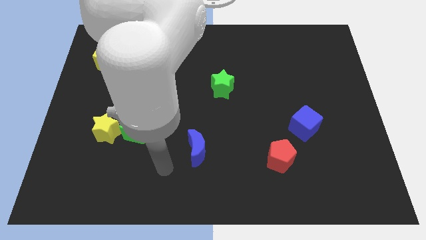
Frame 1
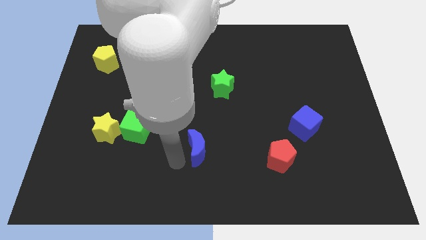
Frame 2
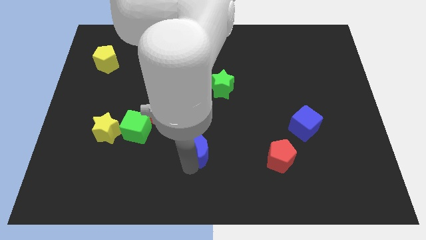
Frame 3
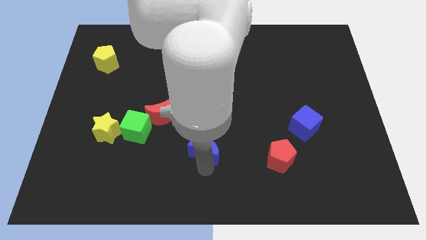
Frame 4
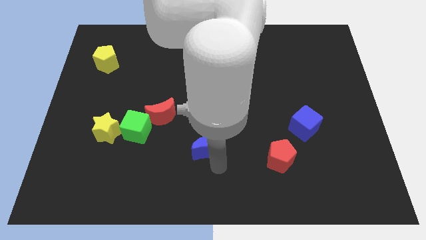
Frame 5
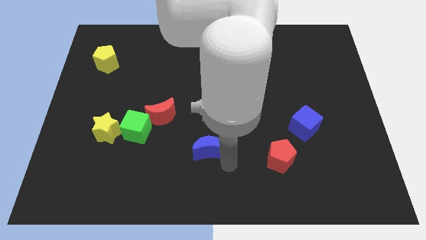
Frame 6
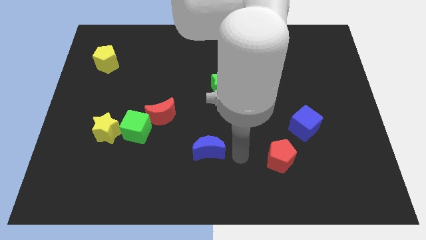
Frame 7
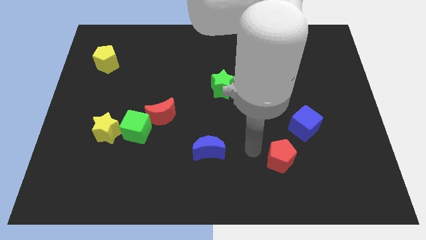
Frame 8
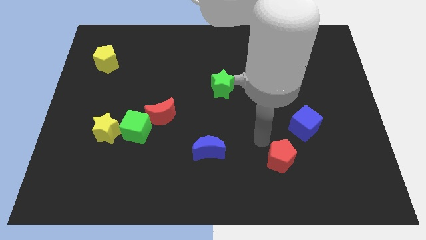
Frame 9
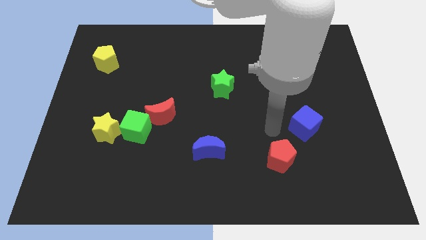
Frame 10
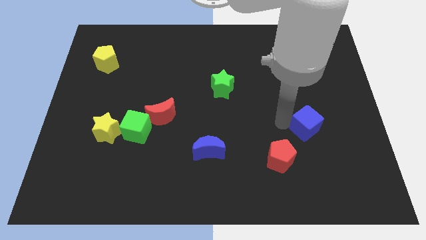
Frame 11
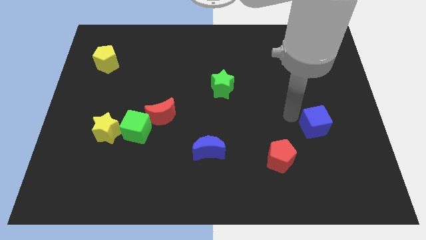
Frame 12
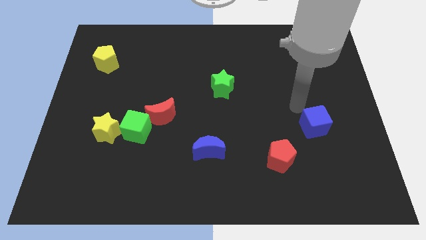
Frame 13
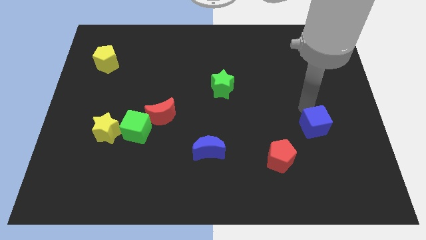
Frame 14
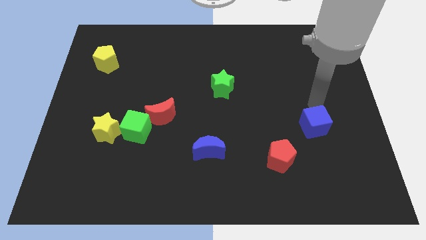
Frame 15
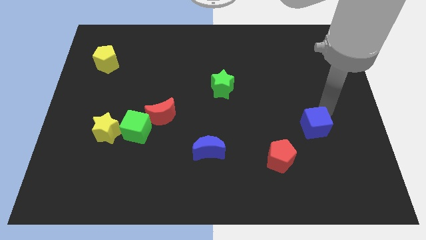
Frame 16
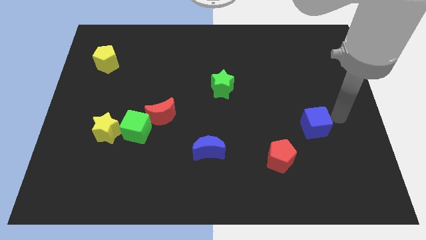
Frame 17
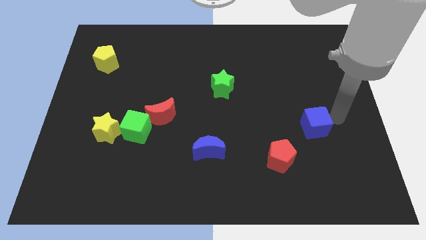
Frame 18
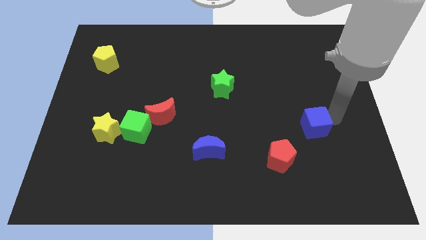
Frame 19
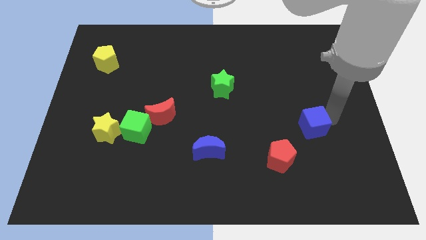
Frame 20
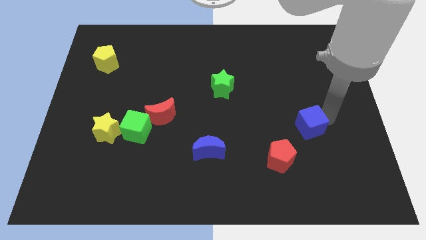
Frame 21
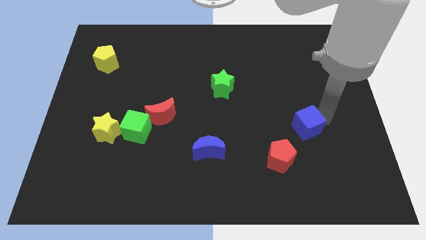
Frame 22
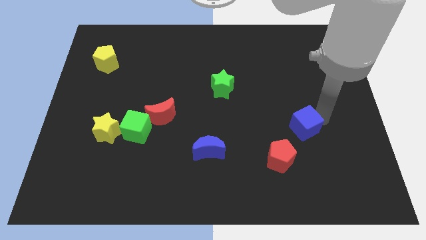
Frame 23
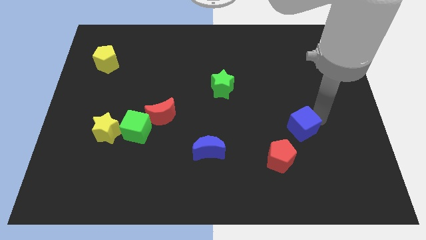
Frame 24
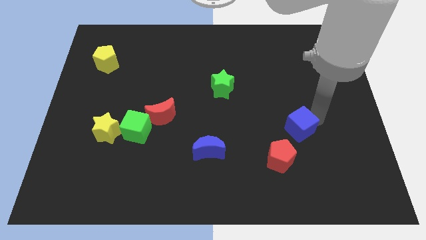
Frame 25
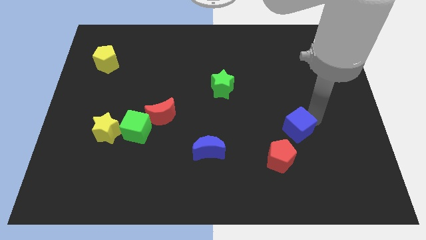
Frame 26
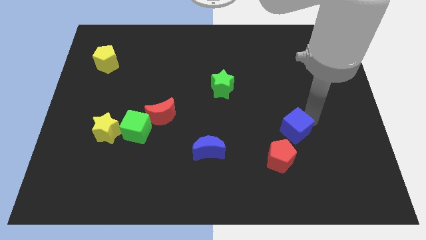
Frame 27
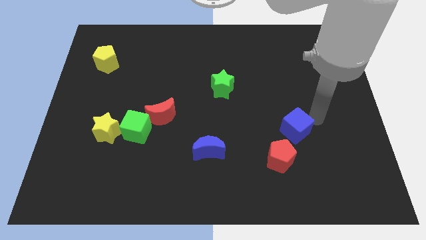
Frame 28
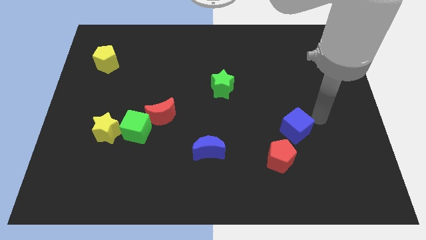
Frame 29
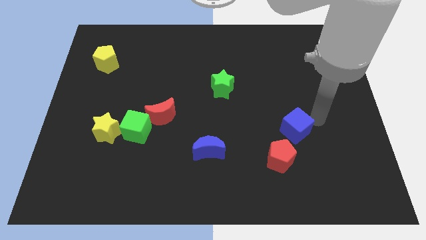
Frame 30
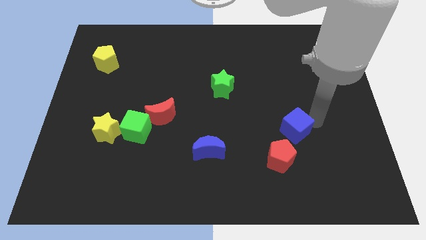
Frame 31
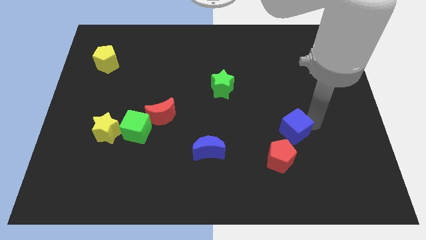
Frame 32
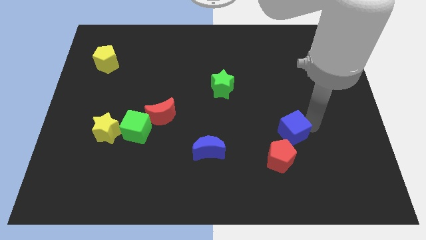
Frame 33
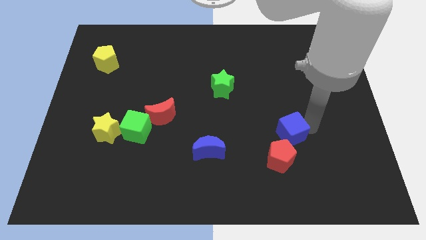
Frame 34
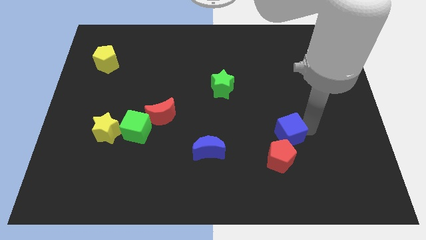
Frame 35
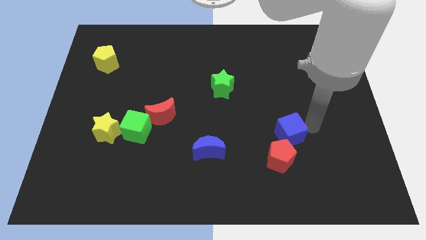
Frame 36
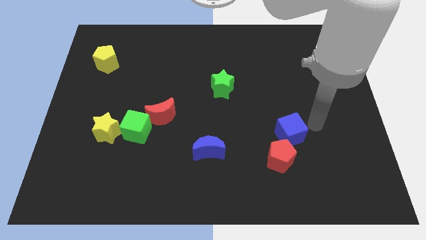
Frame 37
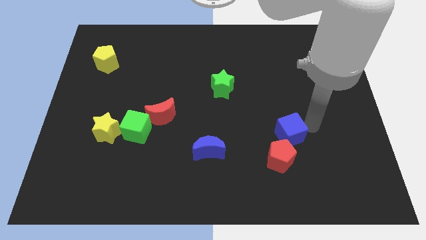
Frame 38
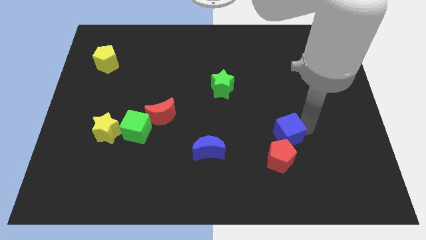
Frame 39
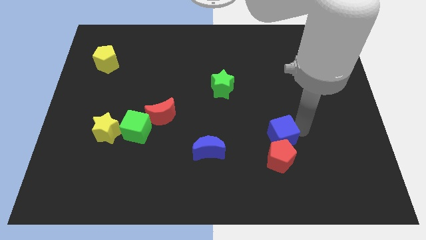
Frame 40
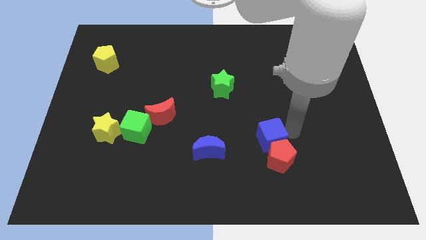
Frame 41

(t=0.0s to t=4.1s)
push the blue cube slightly diagonally down and left

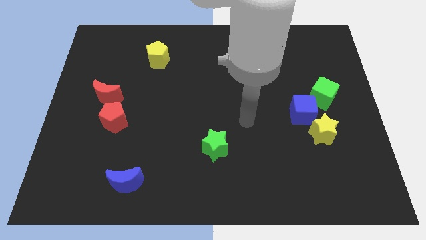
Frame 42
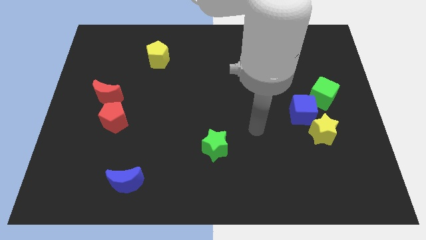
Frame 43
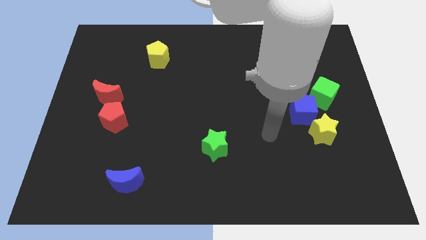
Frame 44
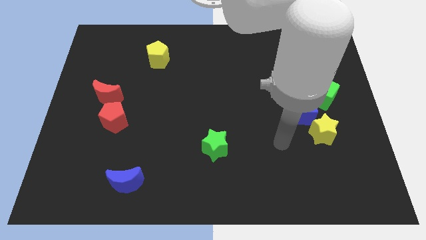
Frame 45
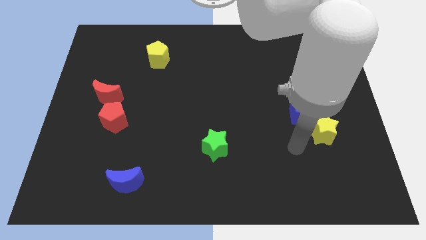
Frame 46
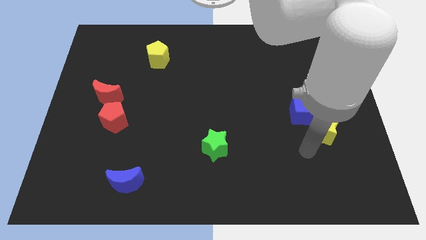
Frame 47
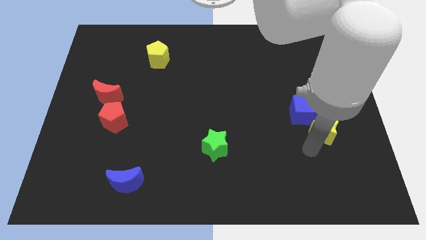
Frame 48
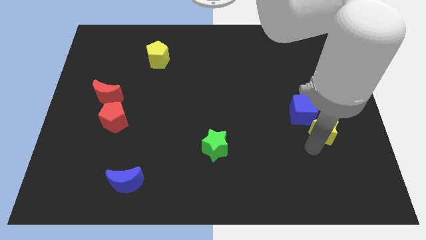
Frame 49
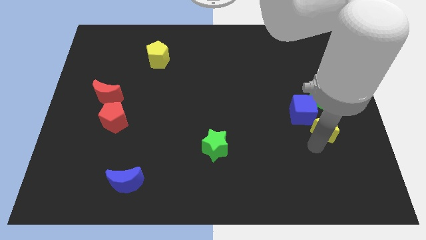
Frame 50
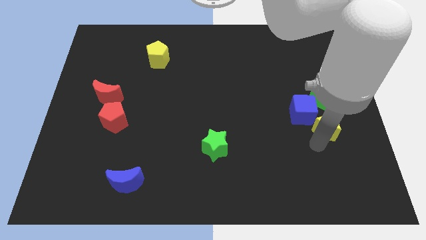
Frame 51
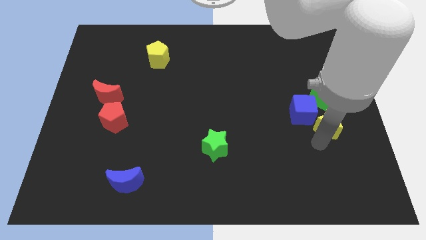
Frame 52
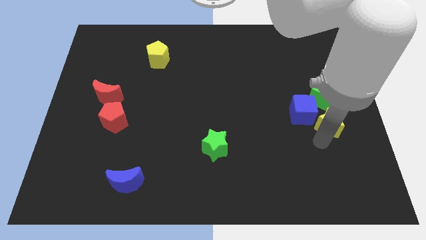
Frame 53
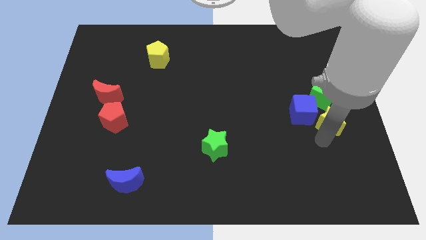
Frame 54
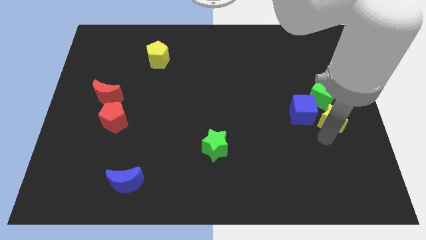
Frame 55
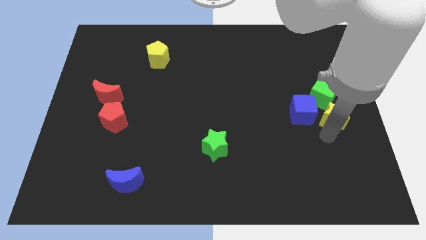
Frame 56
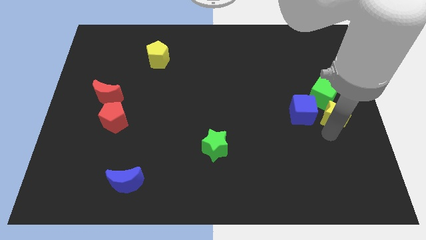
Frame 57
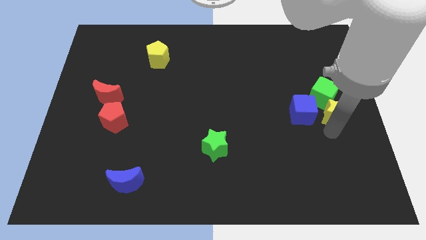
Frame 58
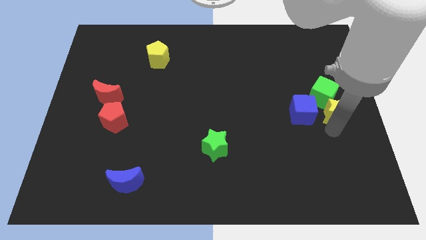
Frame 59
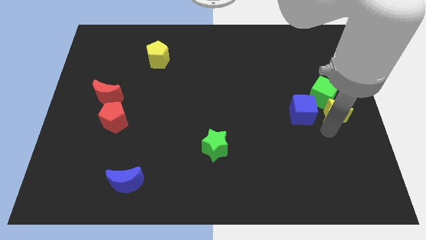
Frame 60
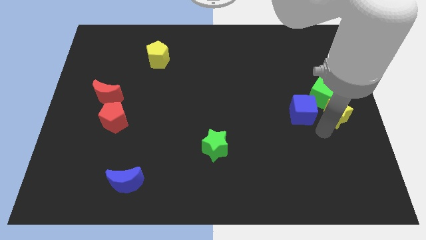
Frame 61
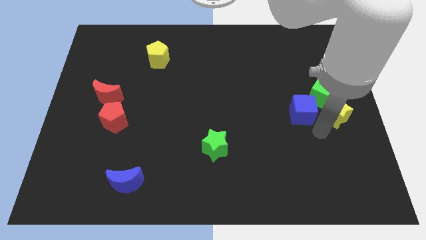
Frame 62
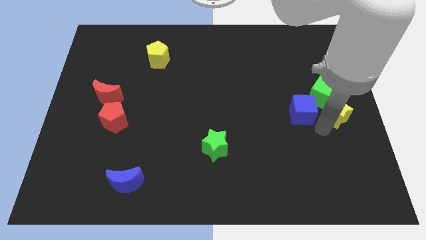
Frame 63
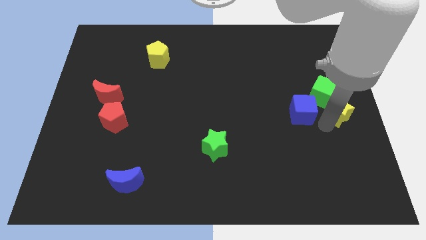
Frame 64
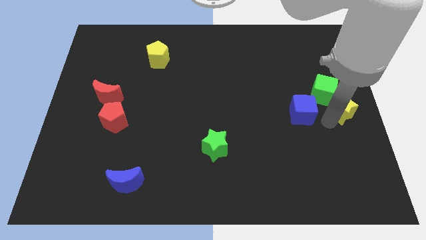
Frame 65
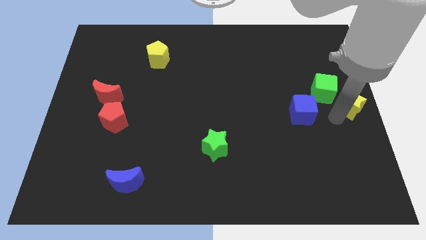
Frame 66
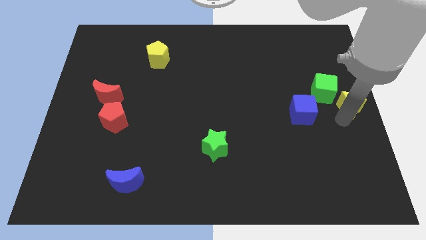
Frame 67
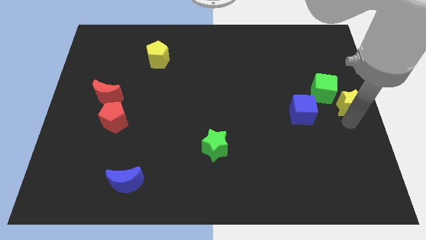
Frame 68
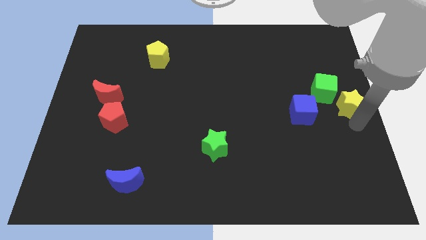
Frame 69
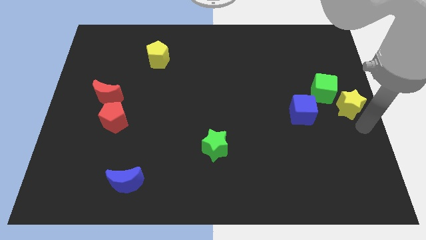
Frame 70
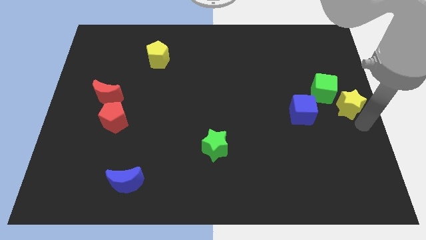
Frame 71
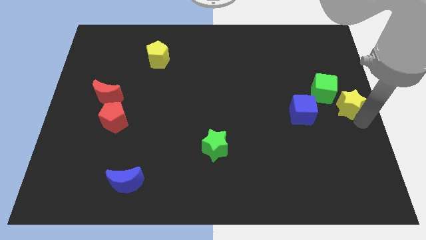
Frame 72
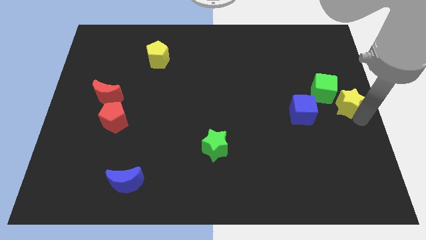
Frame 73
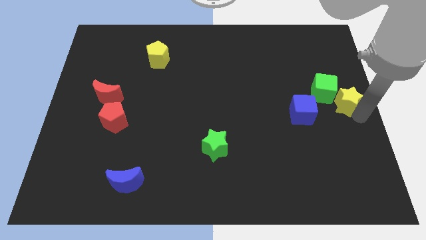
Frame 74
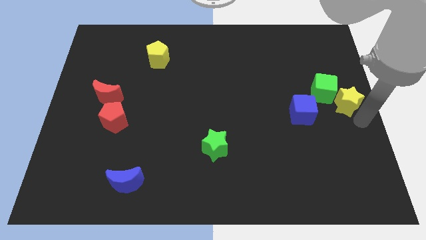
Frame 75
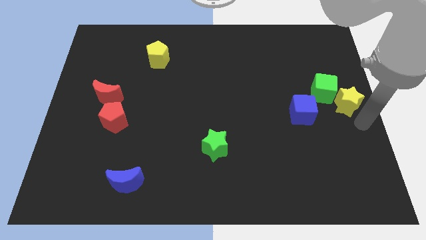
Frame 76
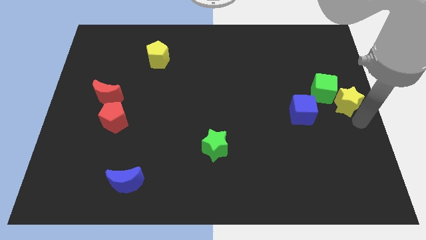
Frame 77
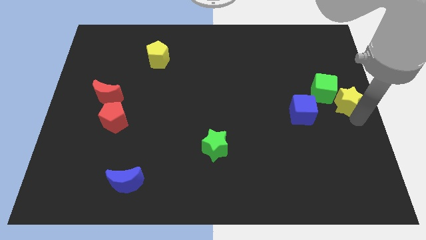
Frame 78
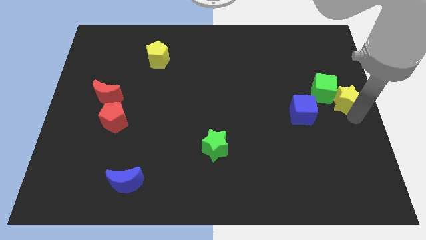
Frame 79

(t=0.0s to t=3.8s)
slightly move the yellow star up

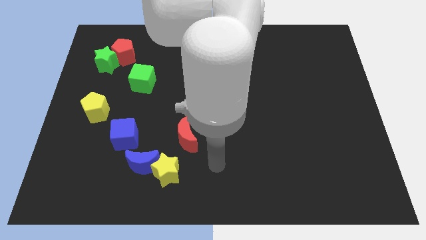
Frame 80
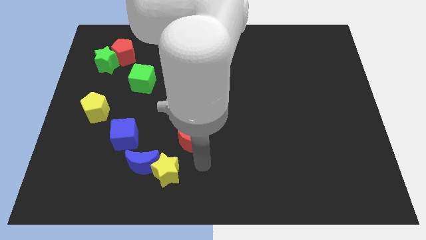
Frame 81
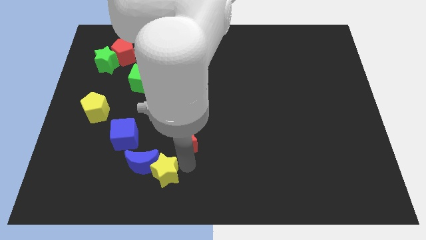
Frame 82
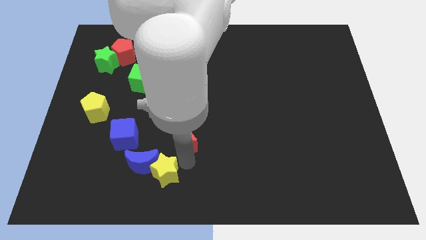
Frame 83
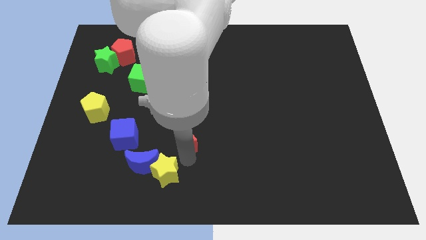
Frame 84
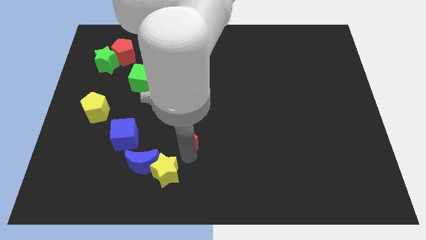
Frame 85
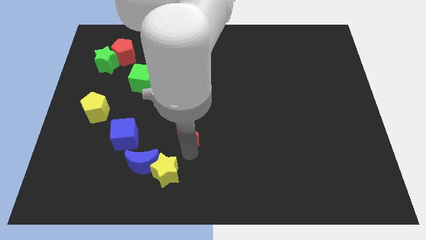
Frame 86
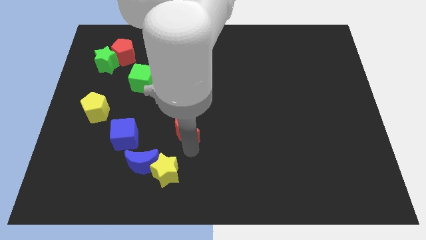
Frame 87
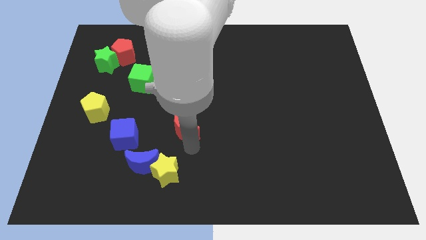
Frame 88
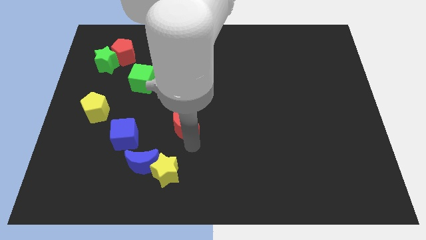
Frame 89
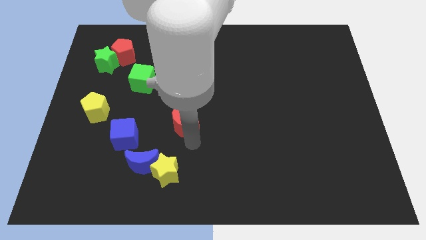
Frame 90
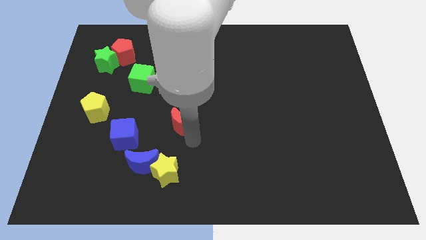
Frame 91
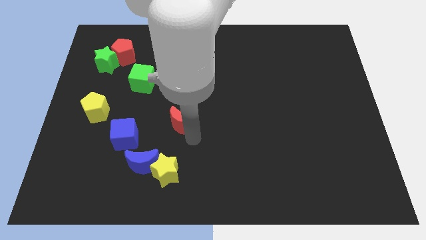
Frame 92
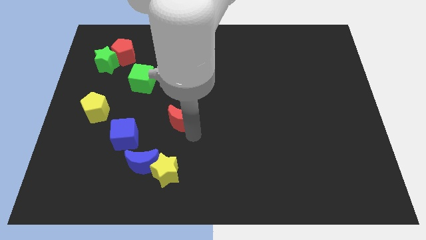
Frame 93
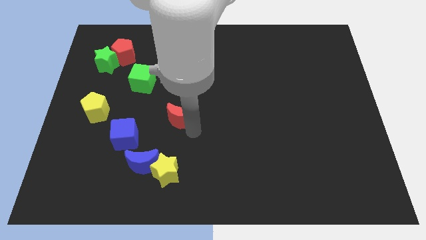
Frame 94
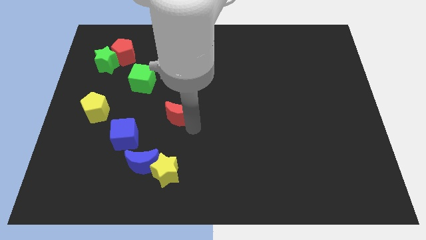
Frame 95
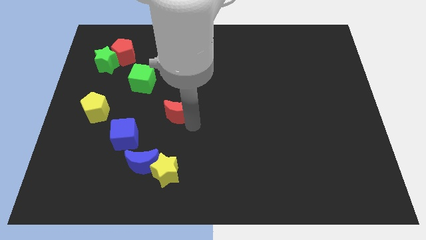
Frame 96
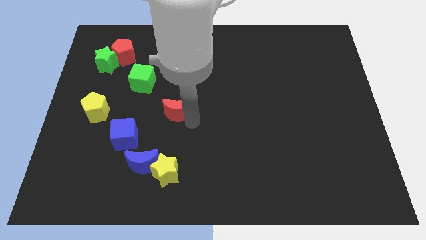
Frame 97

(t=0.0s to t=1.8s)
move the red moon a little bit upwards
